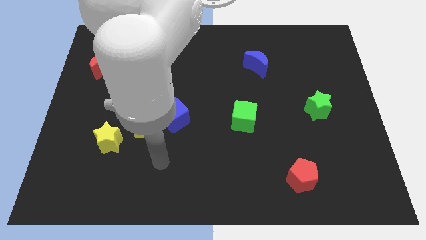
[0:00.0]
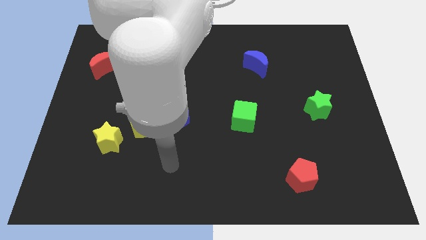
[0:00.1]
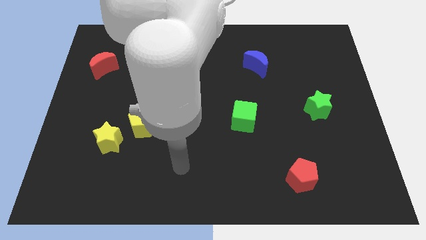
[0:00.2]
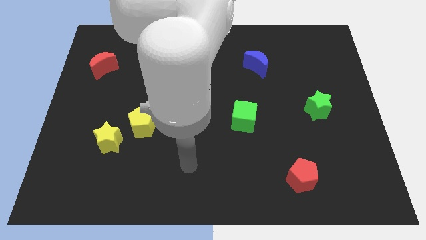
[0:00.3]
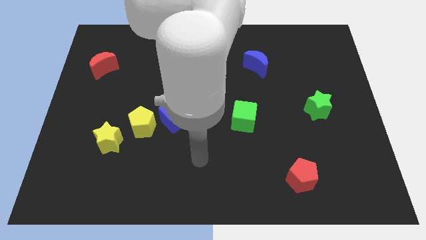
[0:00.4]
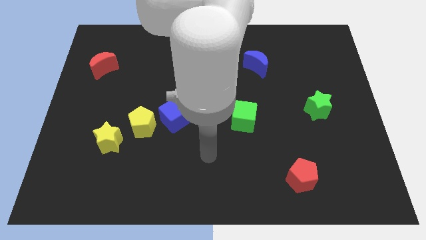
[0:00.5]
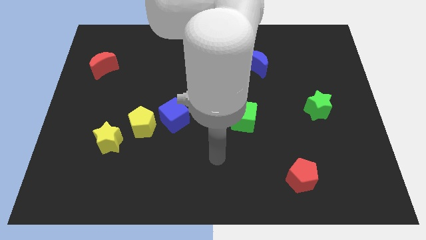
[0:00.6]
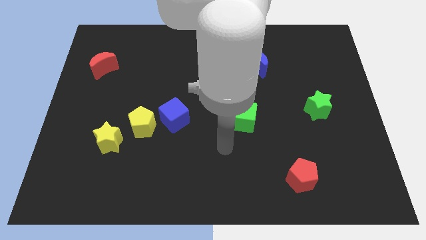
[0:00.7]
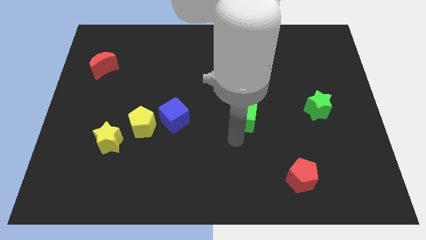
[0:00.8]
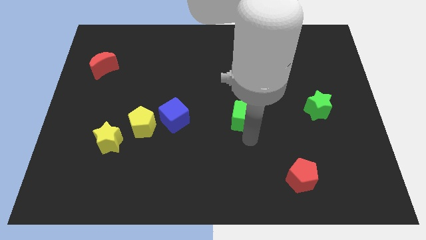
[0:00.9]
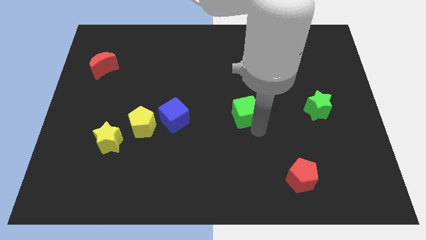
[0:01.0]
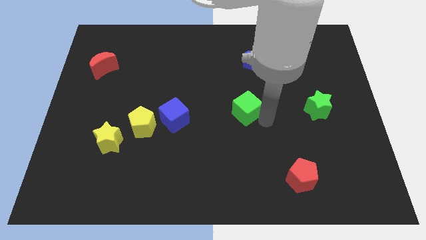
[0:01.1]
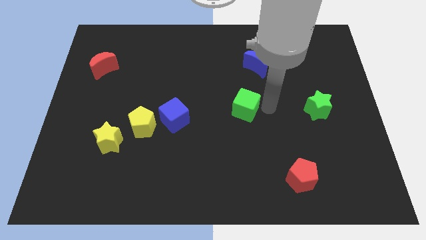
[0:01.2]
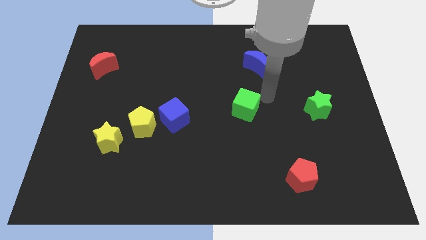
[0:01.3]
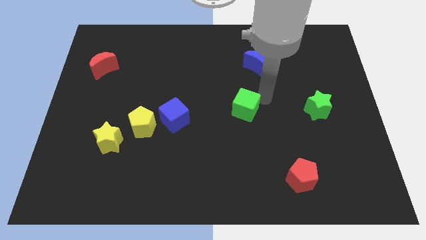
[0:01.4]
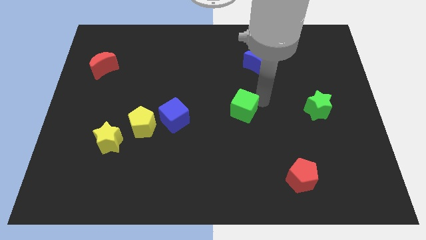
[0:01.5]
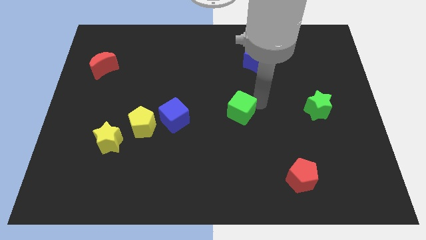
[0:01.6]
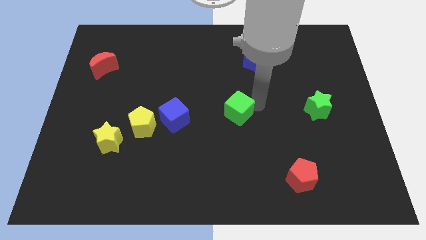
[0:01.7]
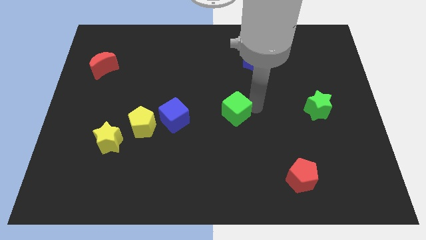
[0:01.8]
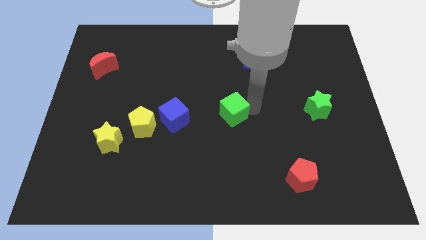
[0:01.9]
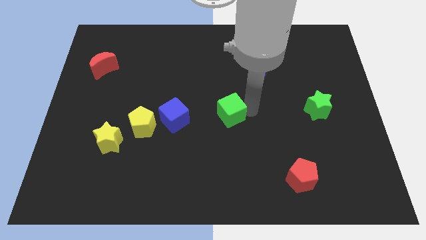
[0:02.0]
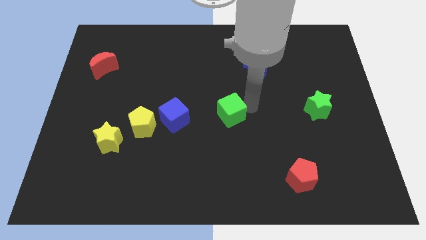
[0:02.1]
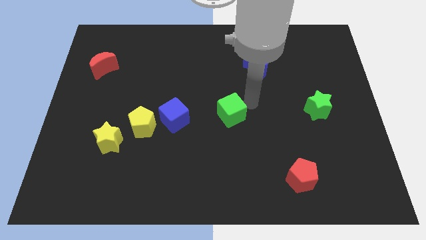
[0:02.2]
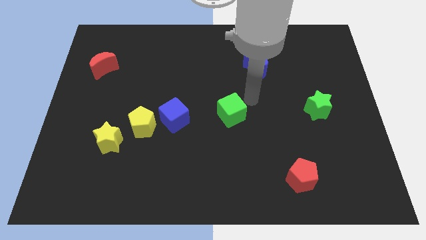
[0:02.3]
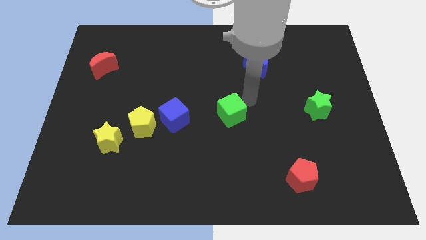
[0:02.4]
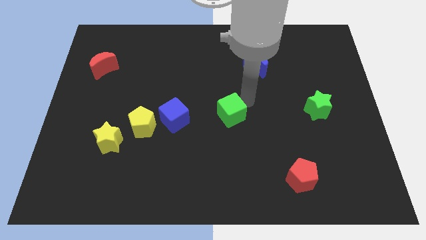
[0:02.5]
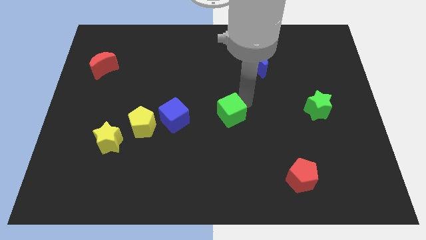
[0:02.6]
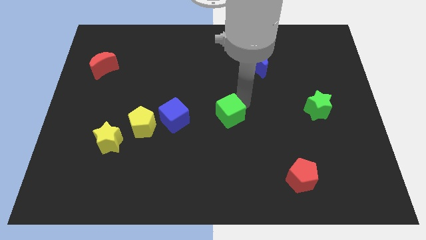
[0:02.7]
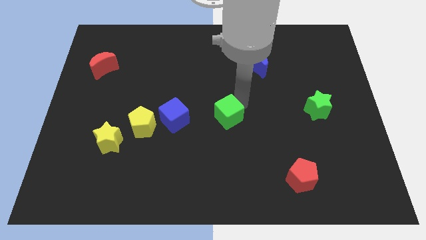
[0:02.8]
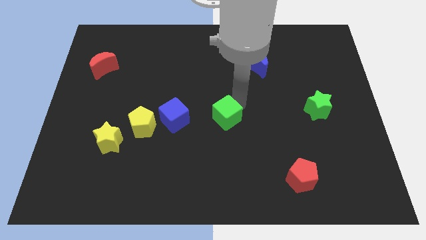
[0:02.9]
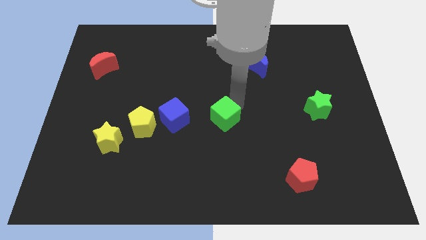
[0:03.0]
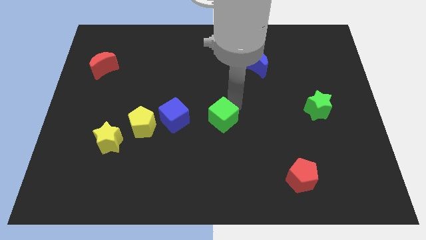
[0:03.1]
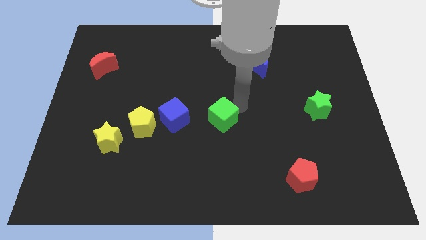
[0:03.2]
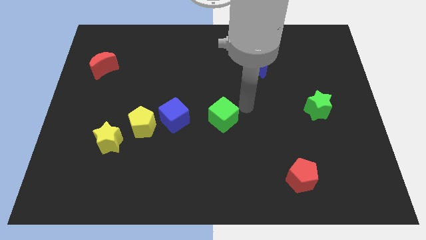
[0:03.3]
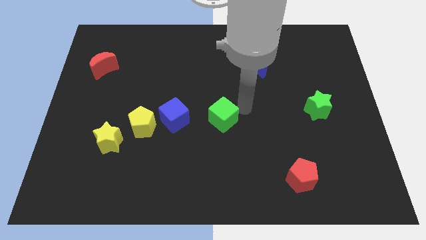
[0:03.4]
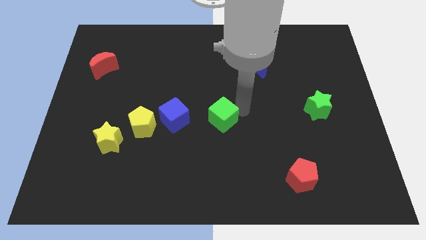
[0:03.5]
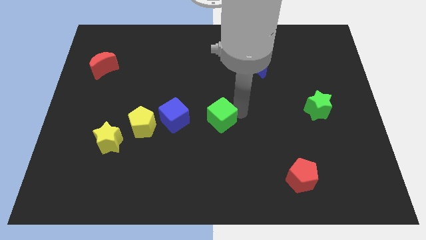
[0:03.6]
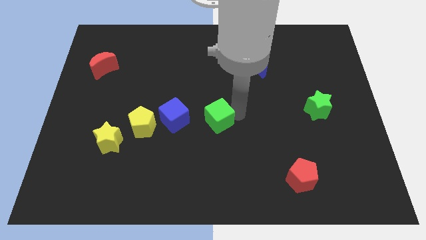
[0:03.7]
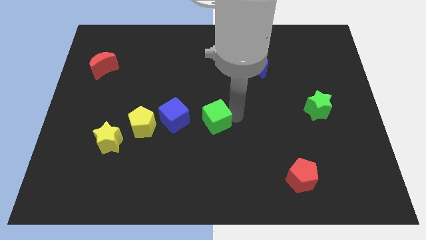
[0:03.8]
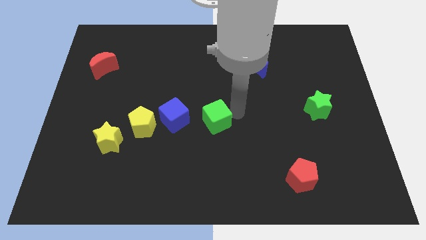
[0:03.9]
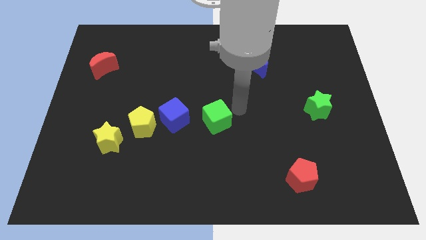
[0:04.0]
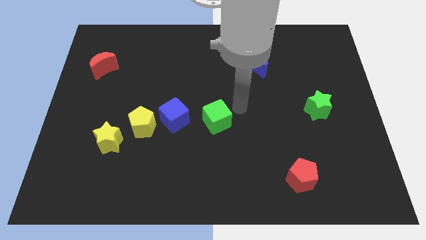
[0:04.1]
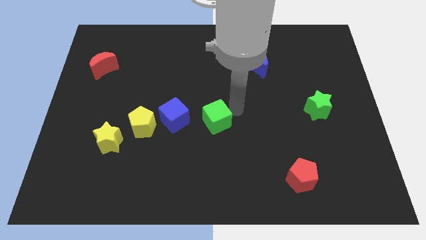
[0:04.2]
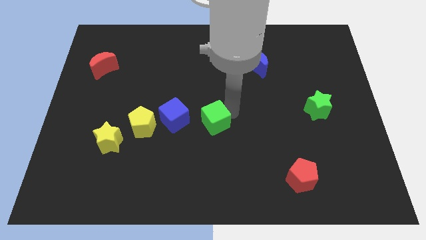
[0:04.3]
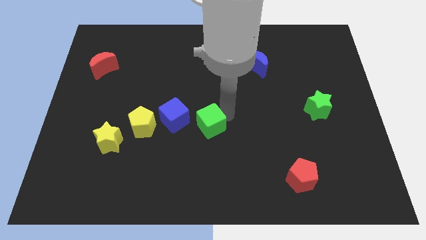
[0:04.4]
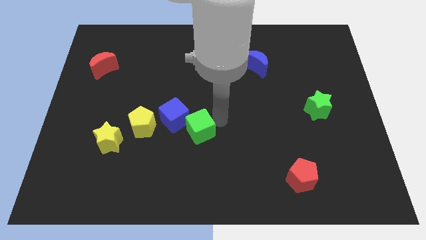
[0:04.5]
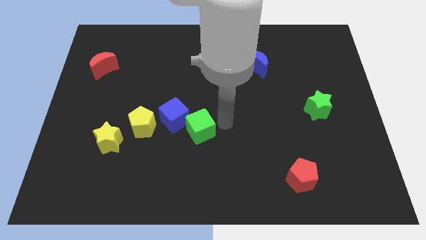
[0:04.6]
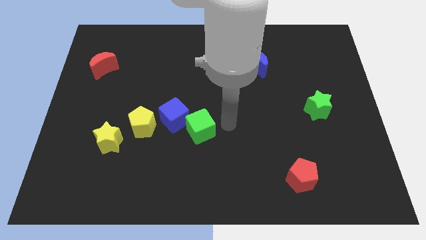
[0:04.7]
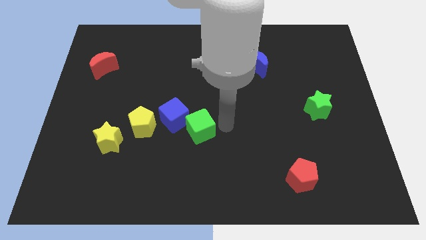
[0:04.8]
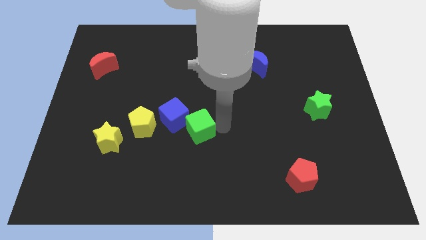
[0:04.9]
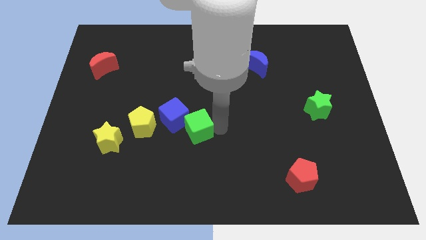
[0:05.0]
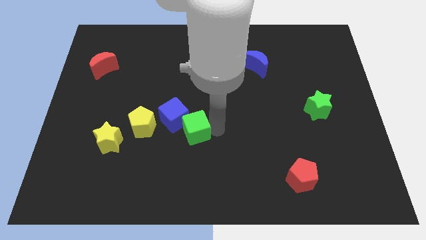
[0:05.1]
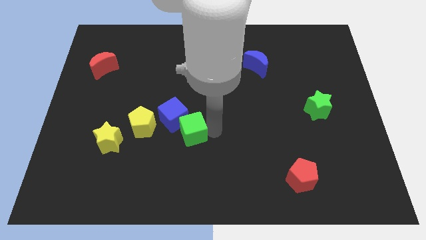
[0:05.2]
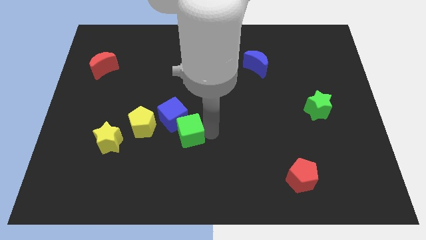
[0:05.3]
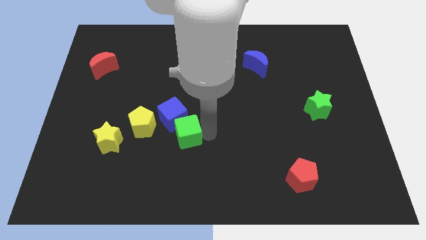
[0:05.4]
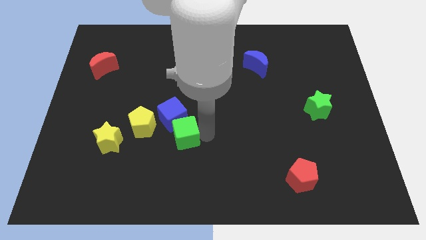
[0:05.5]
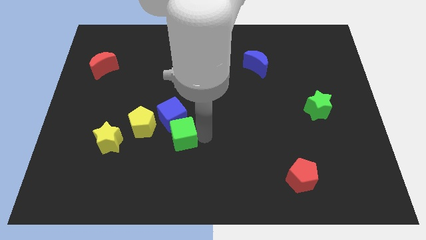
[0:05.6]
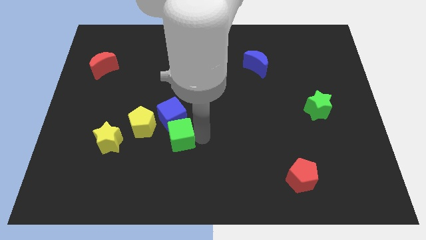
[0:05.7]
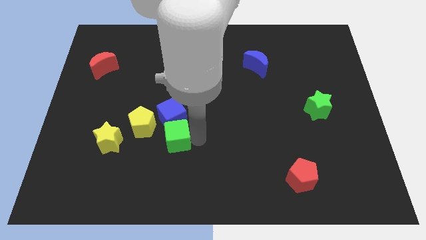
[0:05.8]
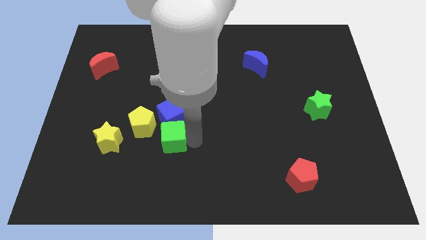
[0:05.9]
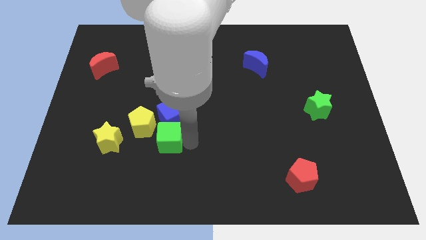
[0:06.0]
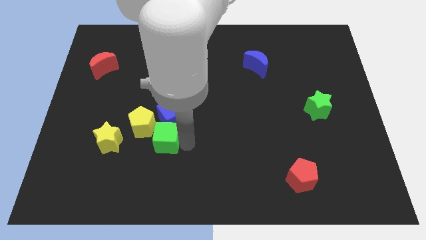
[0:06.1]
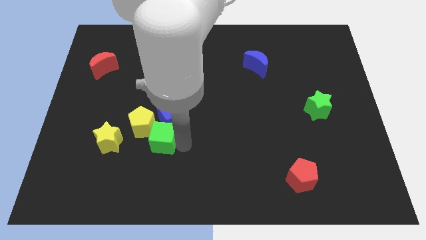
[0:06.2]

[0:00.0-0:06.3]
push the green cube to the yellow pentagon

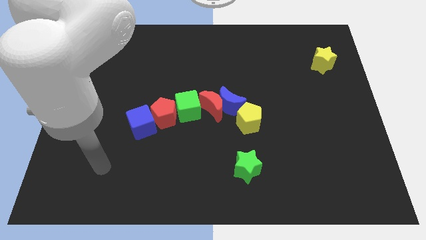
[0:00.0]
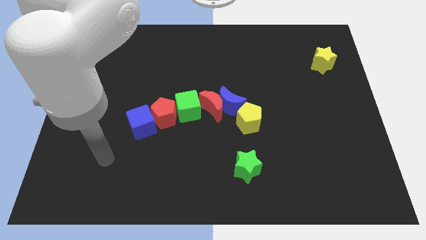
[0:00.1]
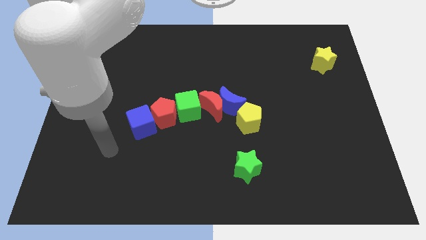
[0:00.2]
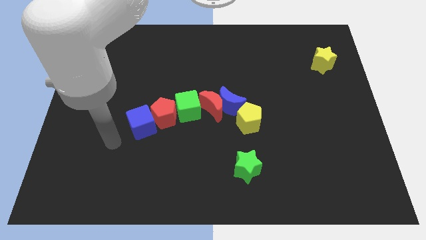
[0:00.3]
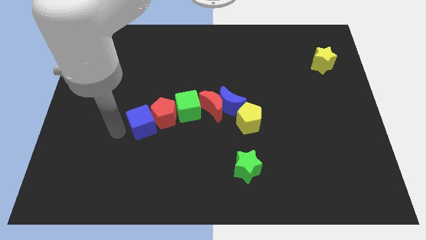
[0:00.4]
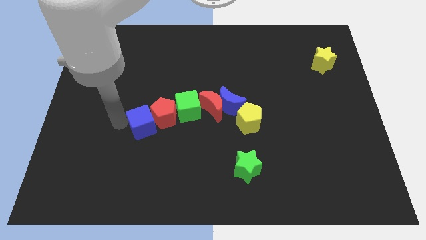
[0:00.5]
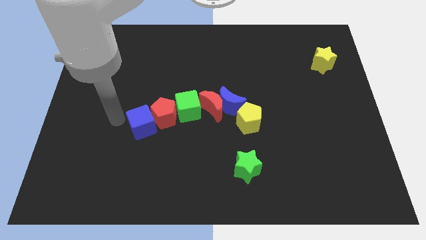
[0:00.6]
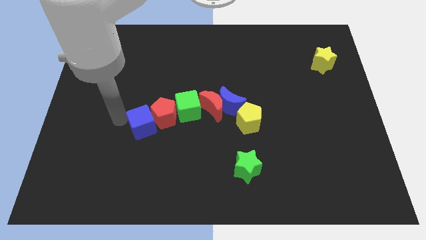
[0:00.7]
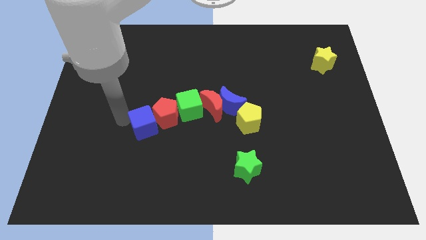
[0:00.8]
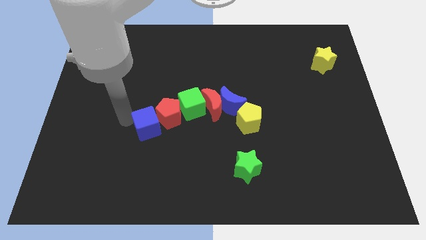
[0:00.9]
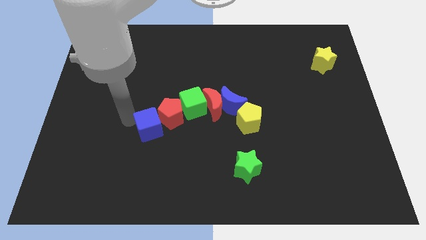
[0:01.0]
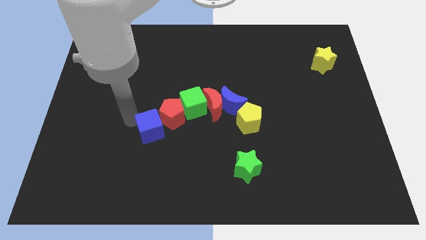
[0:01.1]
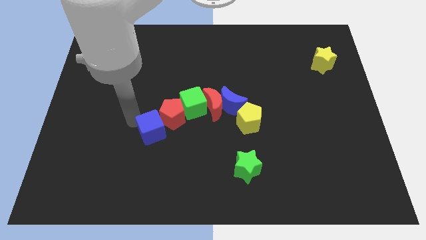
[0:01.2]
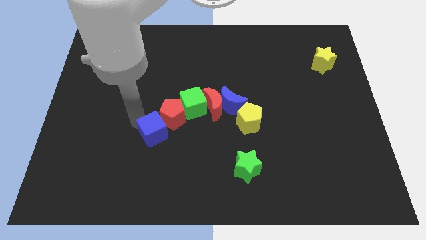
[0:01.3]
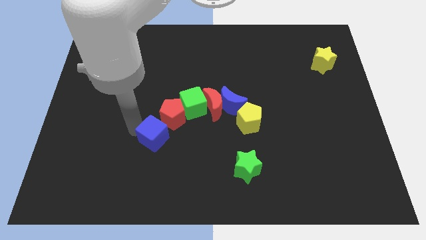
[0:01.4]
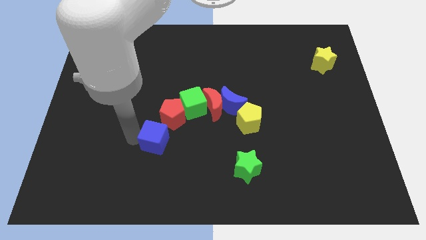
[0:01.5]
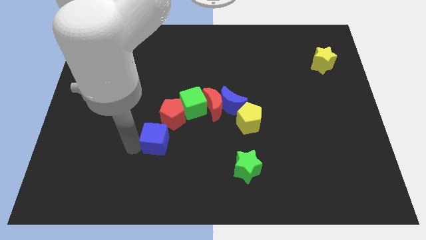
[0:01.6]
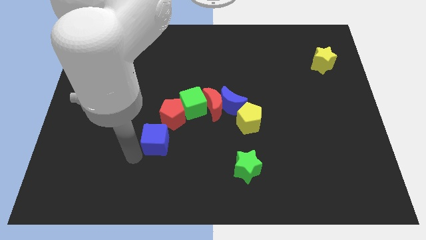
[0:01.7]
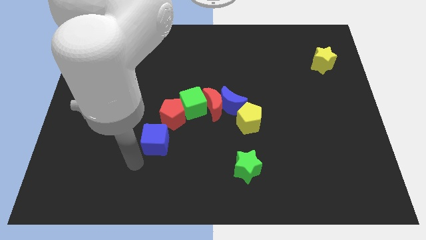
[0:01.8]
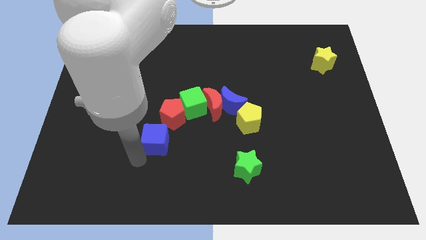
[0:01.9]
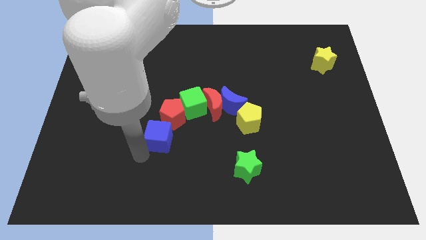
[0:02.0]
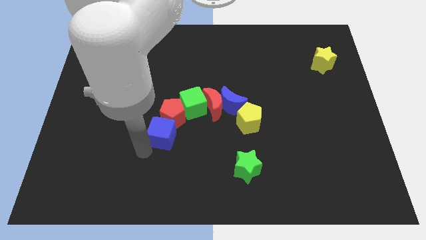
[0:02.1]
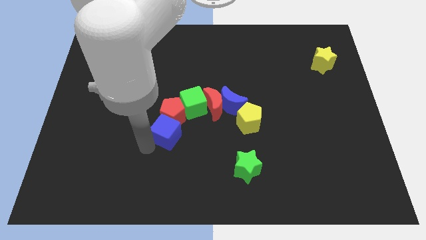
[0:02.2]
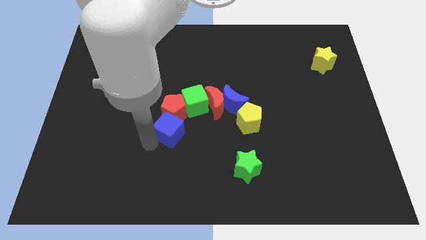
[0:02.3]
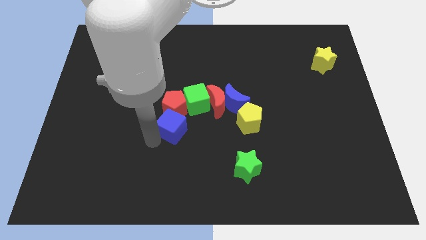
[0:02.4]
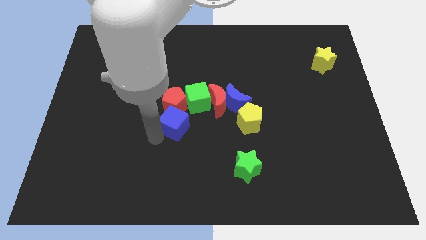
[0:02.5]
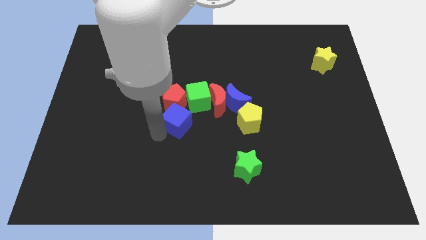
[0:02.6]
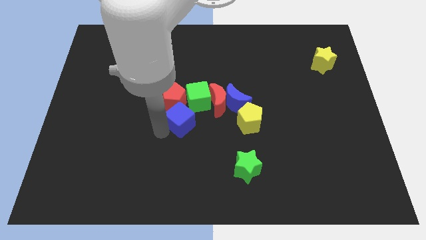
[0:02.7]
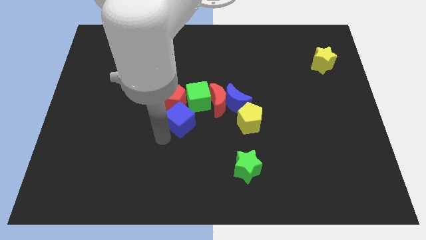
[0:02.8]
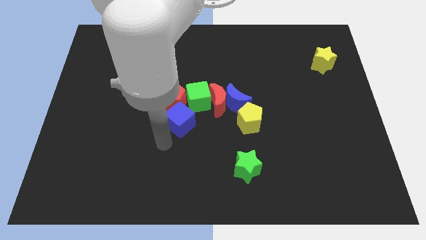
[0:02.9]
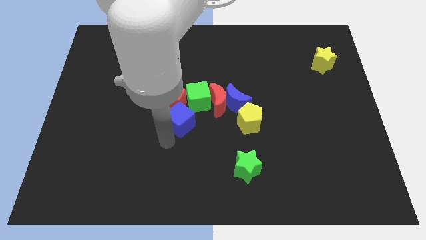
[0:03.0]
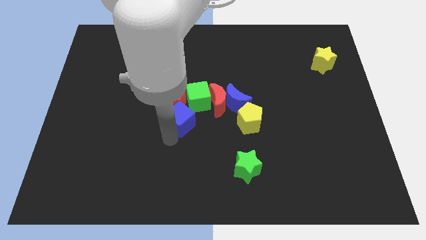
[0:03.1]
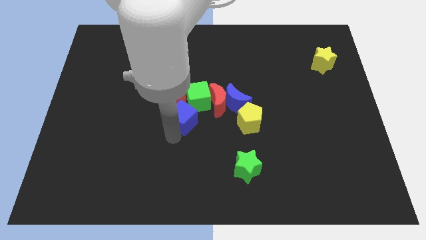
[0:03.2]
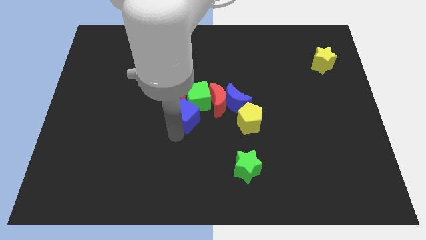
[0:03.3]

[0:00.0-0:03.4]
slide the blue cube close to the green cube
